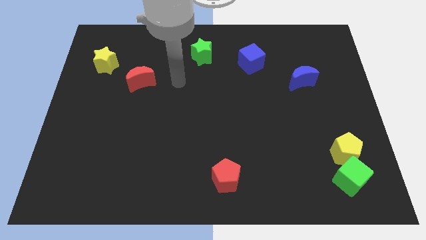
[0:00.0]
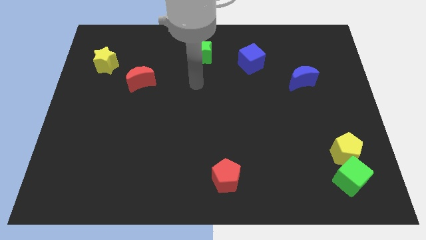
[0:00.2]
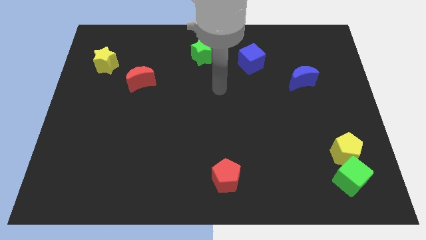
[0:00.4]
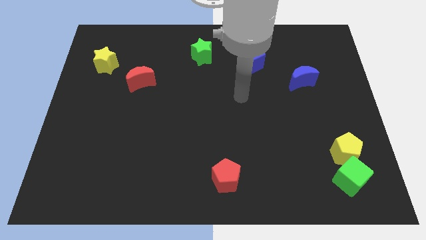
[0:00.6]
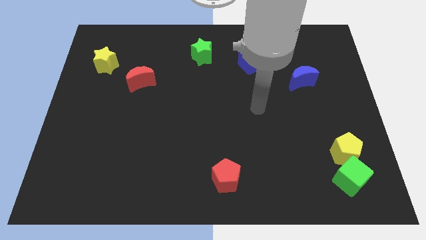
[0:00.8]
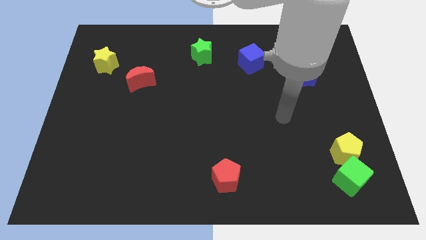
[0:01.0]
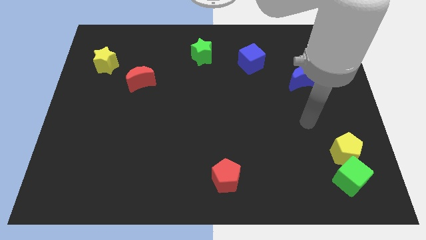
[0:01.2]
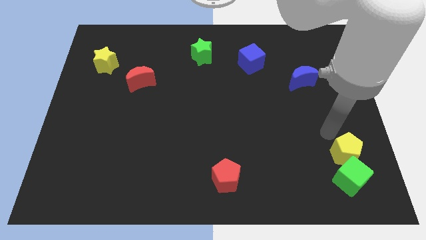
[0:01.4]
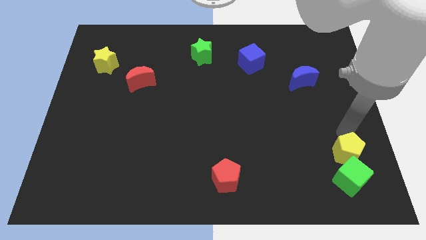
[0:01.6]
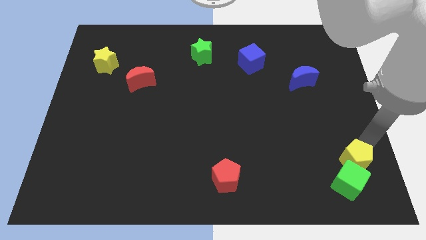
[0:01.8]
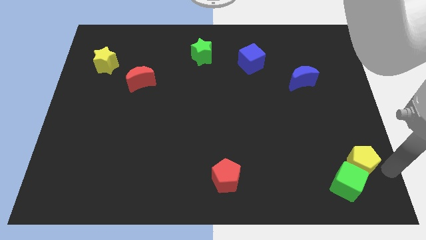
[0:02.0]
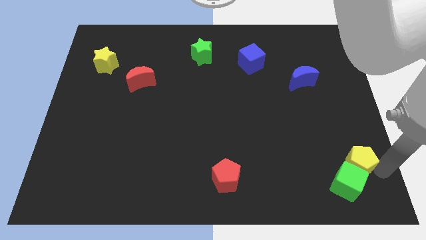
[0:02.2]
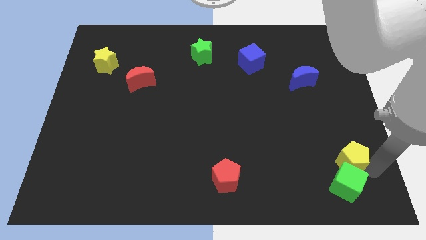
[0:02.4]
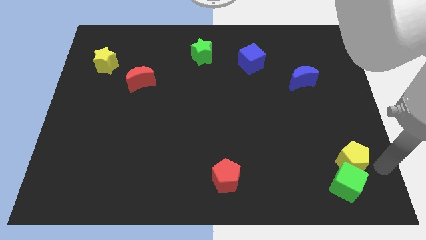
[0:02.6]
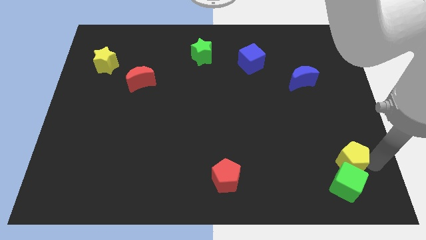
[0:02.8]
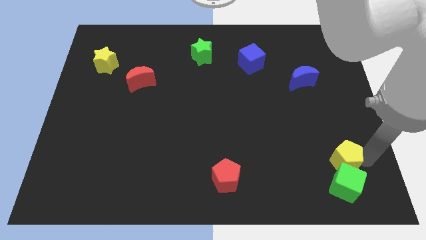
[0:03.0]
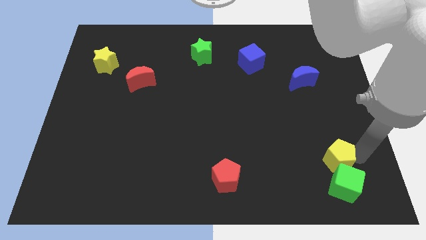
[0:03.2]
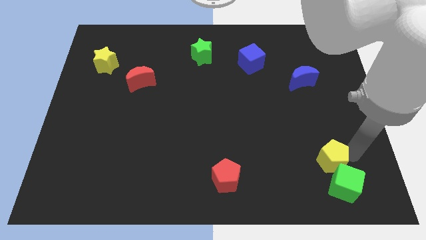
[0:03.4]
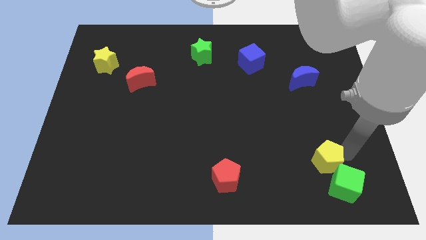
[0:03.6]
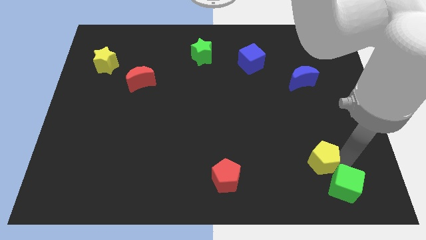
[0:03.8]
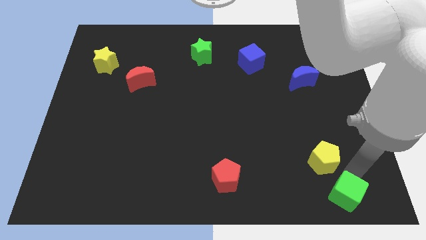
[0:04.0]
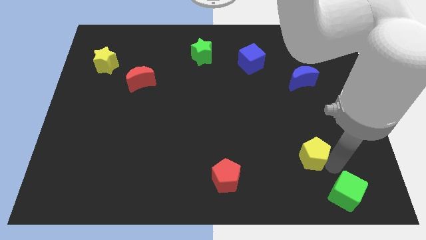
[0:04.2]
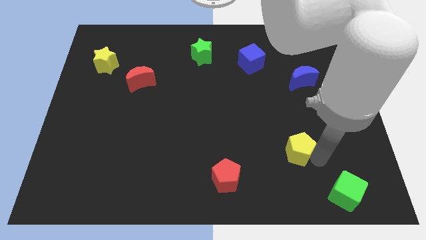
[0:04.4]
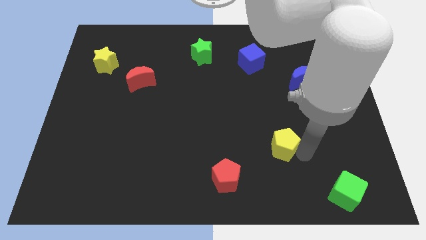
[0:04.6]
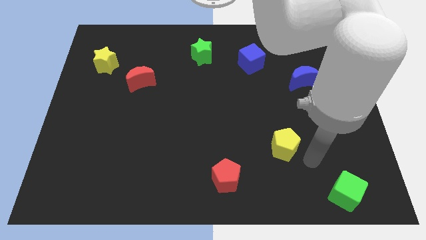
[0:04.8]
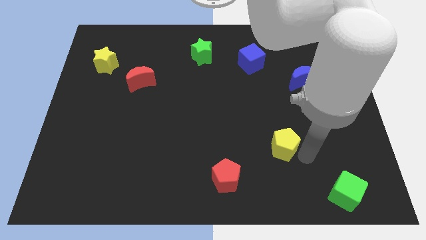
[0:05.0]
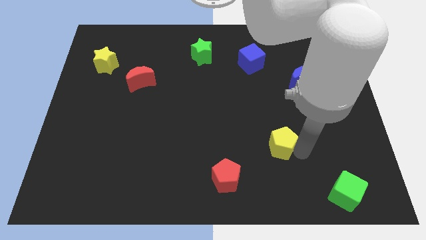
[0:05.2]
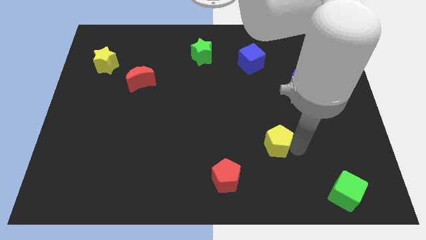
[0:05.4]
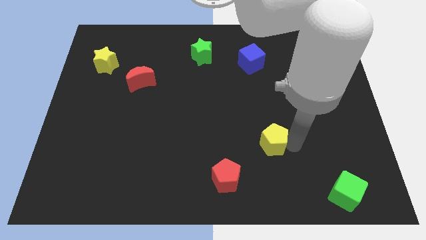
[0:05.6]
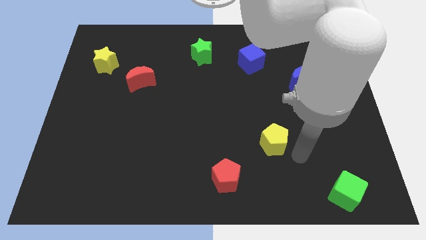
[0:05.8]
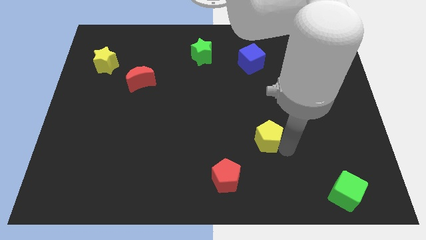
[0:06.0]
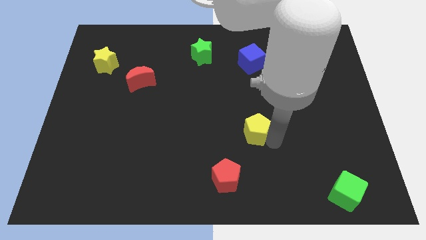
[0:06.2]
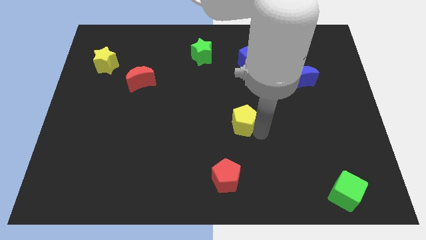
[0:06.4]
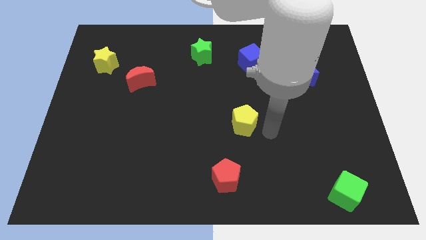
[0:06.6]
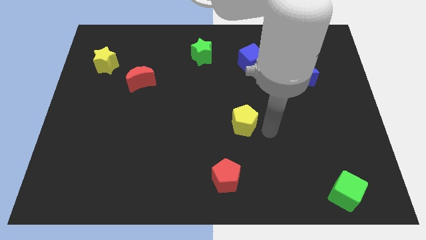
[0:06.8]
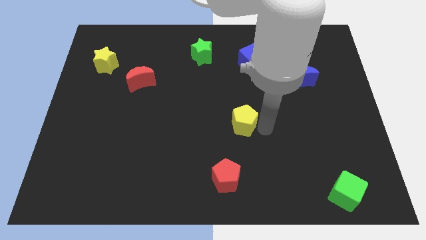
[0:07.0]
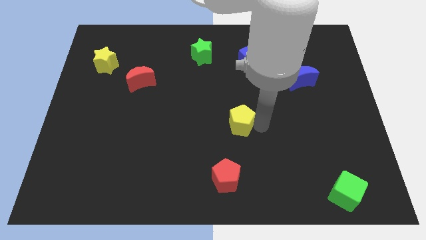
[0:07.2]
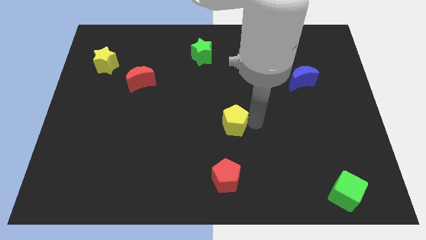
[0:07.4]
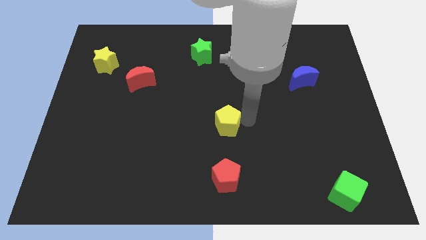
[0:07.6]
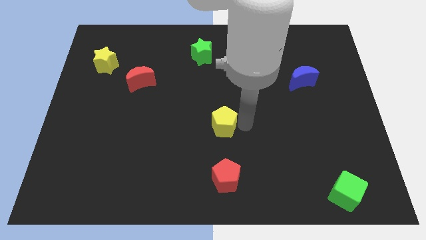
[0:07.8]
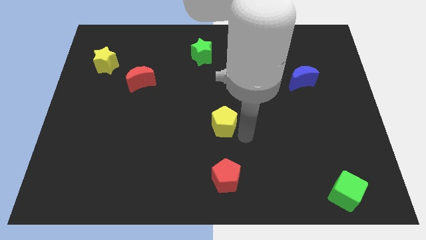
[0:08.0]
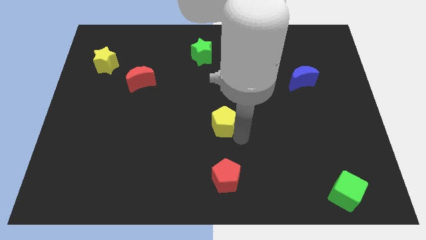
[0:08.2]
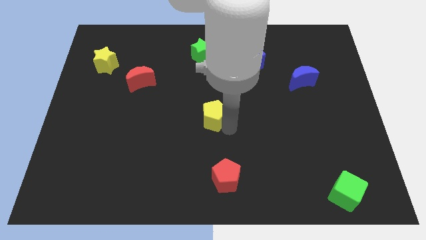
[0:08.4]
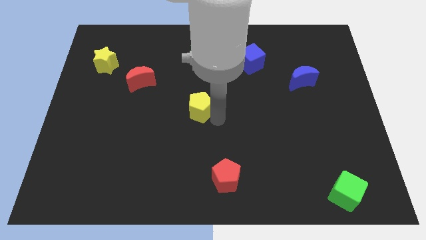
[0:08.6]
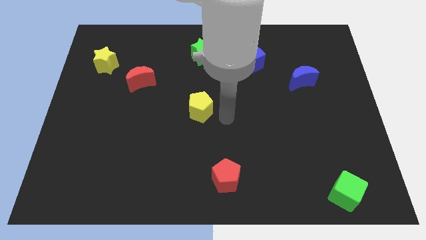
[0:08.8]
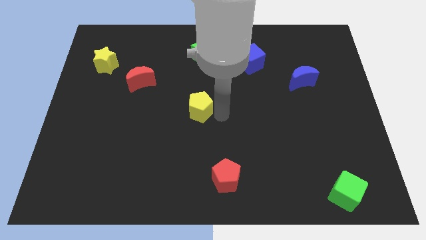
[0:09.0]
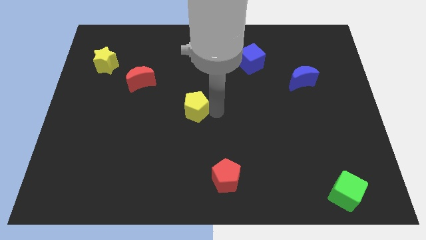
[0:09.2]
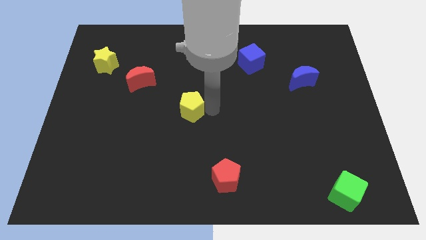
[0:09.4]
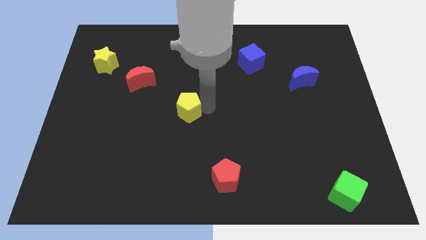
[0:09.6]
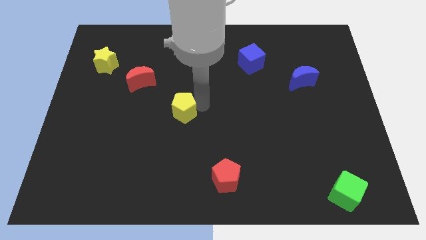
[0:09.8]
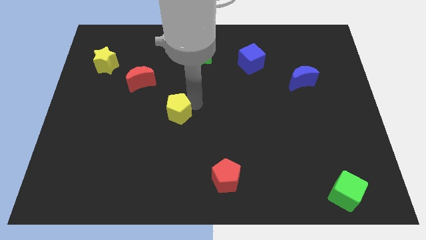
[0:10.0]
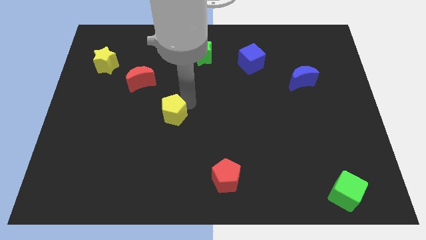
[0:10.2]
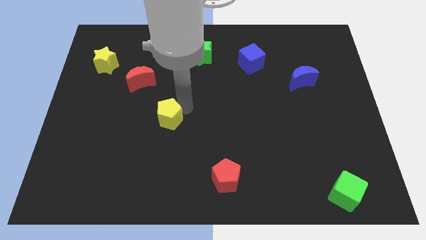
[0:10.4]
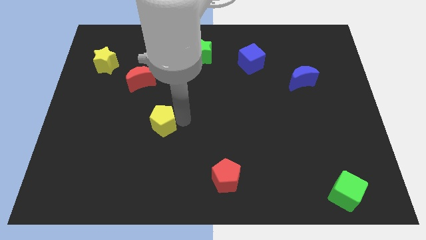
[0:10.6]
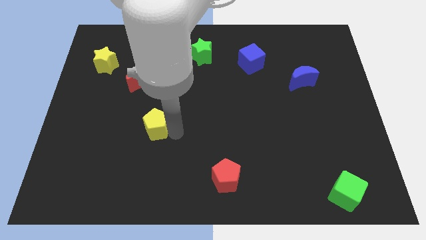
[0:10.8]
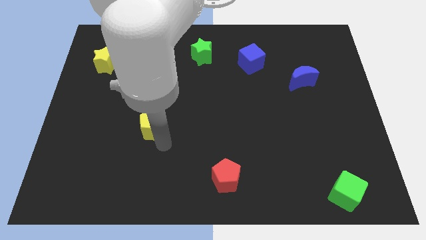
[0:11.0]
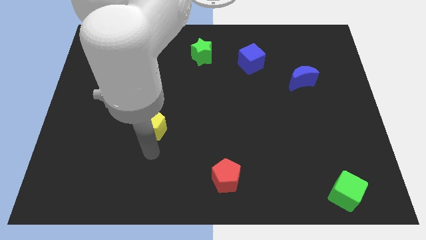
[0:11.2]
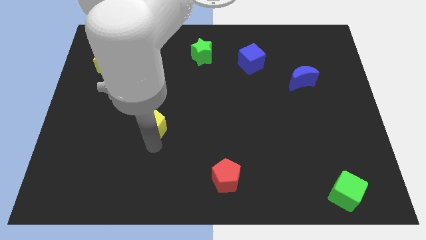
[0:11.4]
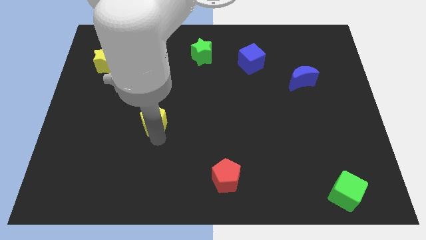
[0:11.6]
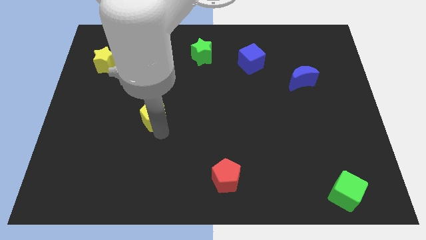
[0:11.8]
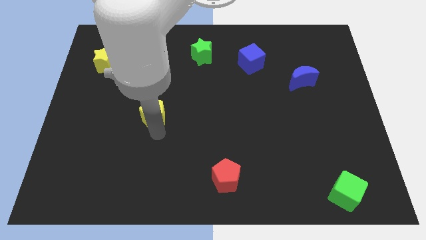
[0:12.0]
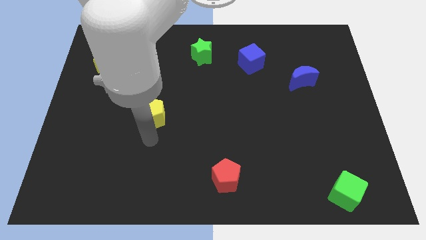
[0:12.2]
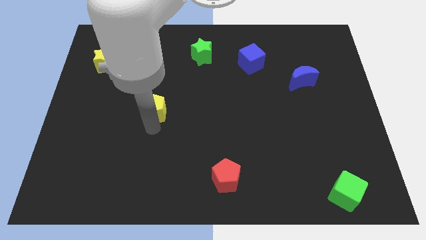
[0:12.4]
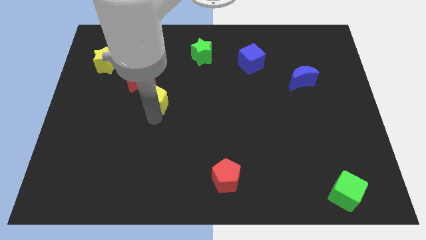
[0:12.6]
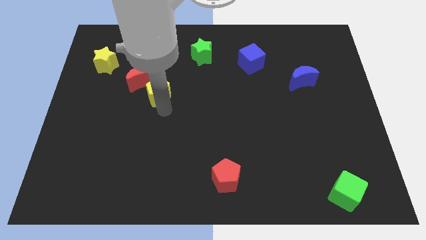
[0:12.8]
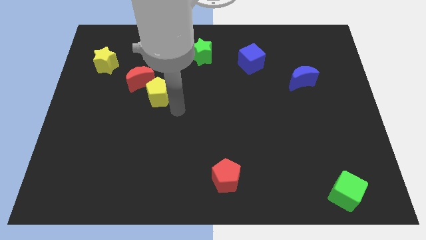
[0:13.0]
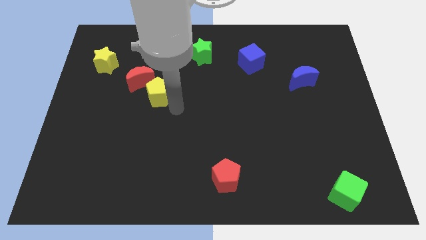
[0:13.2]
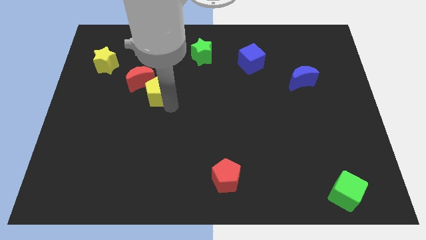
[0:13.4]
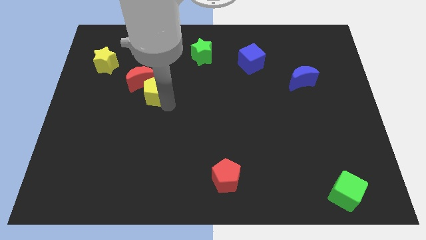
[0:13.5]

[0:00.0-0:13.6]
put the yellow pentagon to the red moon

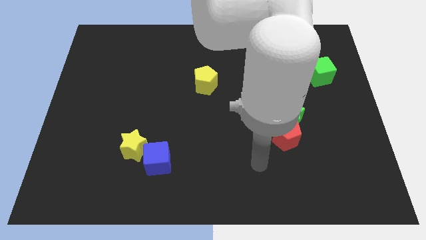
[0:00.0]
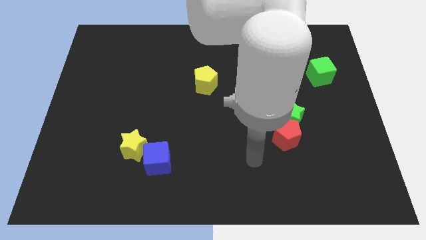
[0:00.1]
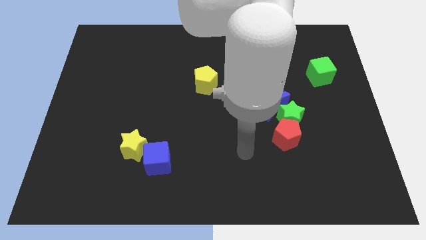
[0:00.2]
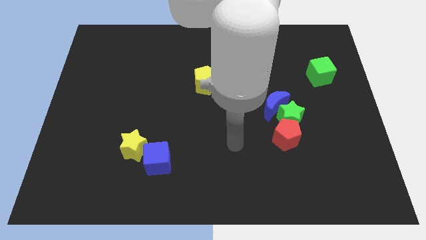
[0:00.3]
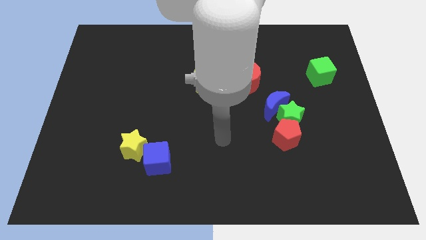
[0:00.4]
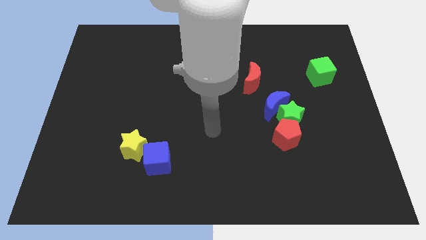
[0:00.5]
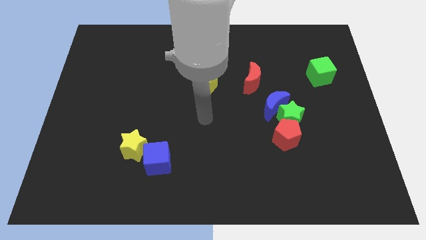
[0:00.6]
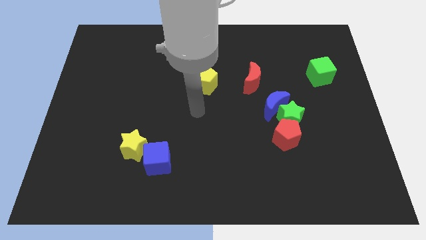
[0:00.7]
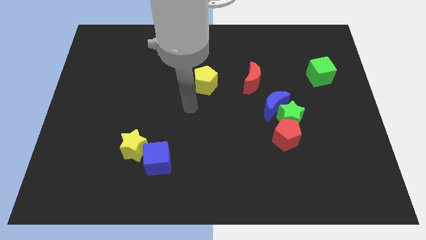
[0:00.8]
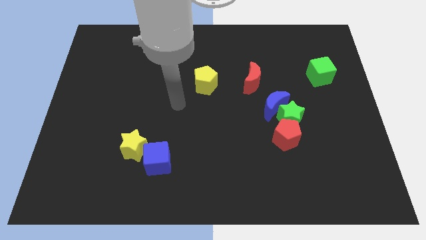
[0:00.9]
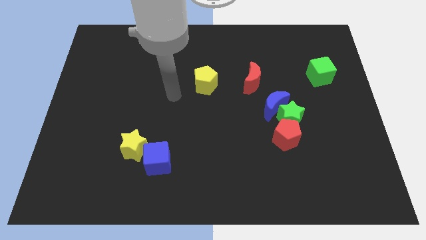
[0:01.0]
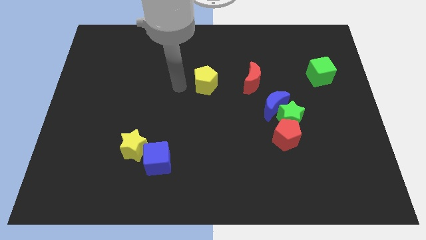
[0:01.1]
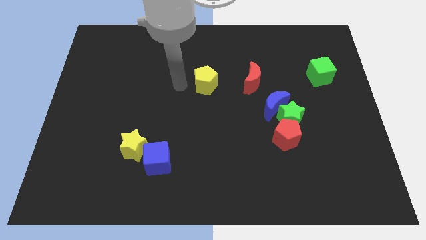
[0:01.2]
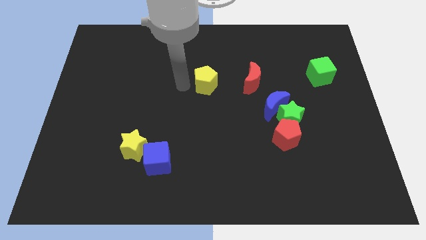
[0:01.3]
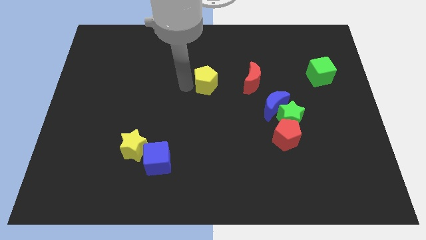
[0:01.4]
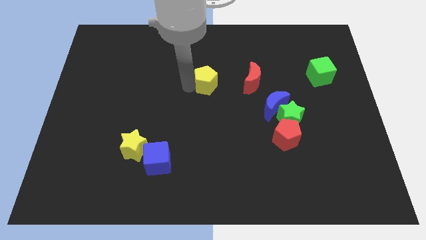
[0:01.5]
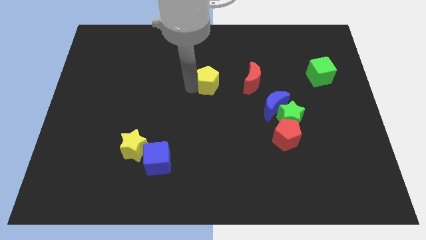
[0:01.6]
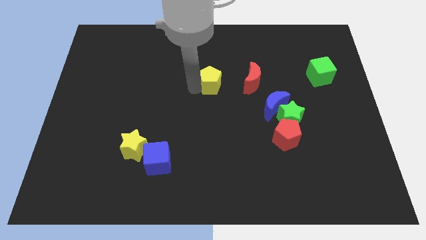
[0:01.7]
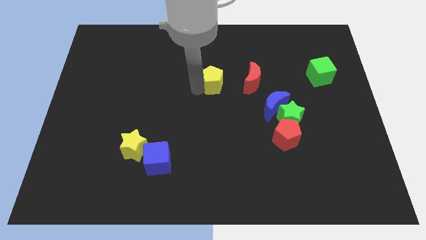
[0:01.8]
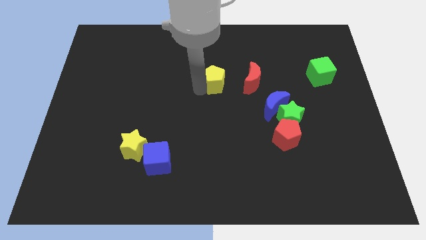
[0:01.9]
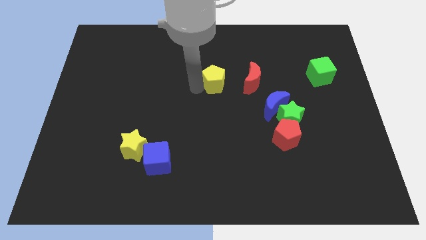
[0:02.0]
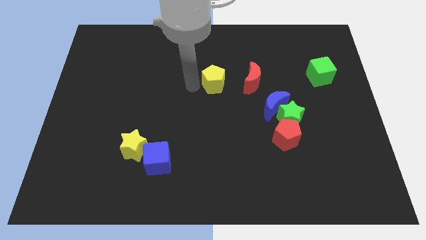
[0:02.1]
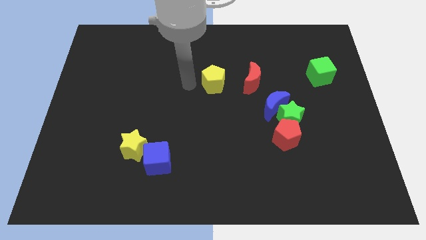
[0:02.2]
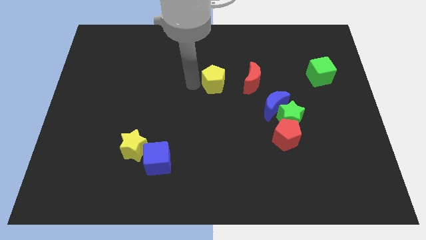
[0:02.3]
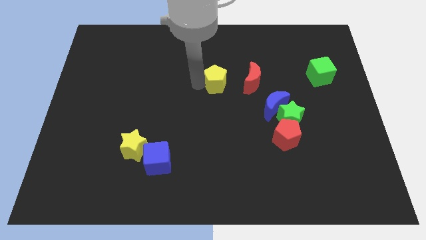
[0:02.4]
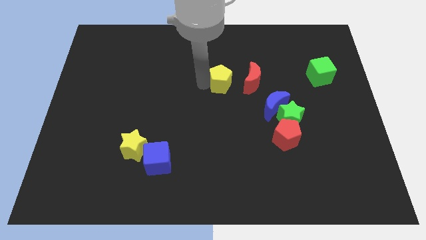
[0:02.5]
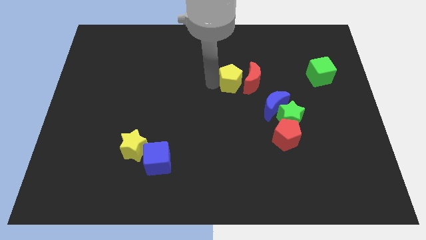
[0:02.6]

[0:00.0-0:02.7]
move the yellow pentagon to the red moon
